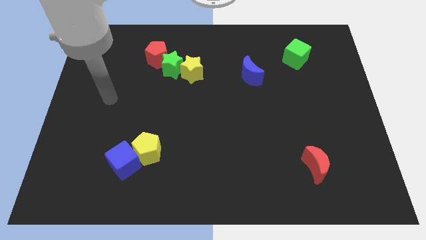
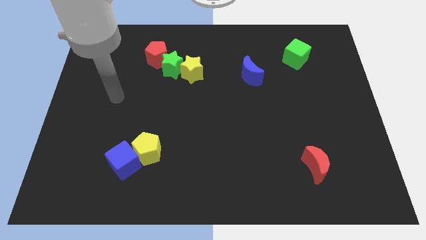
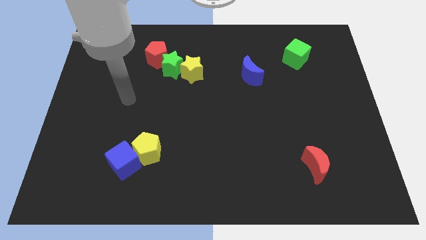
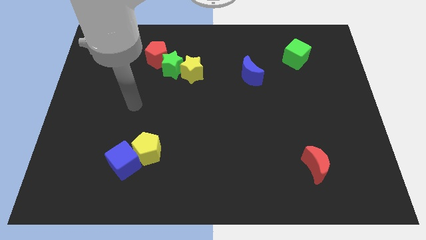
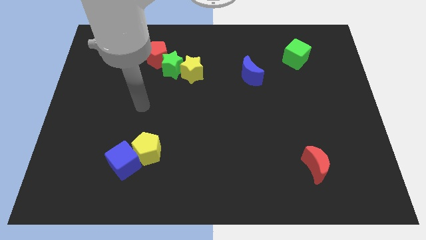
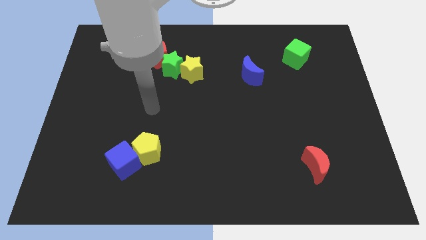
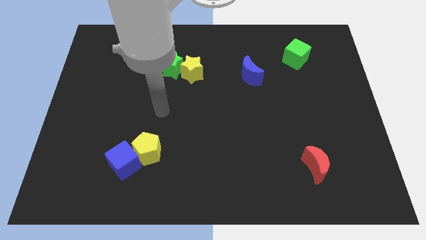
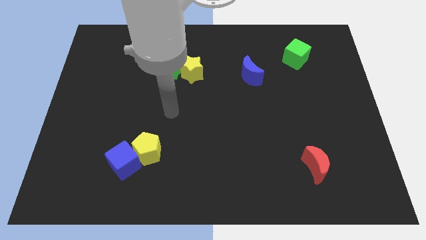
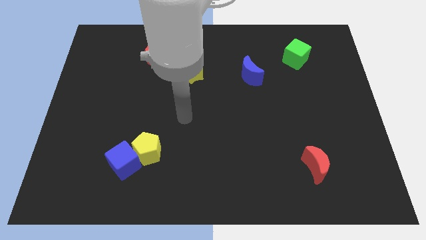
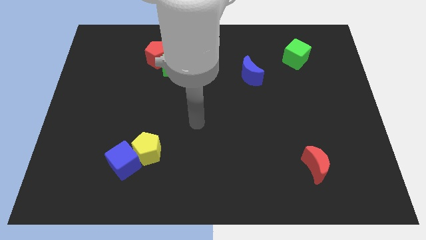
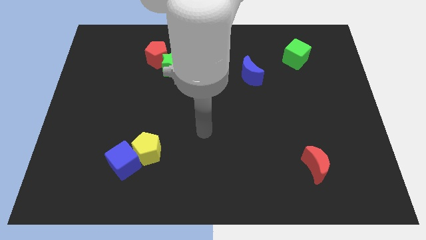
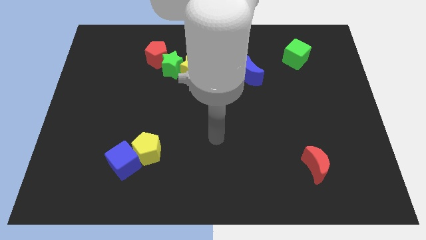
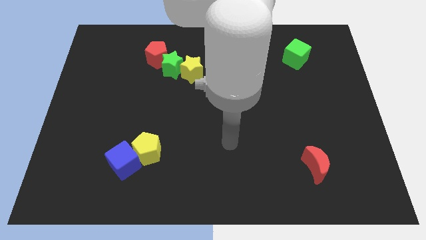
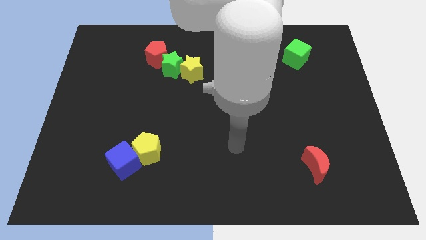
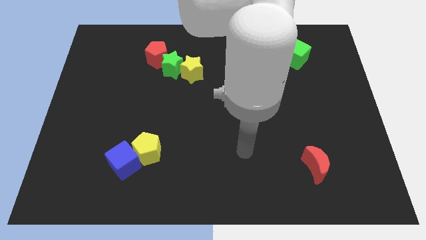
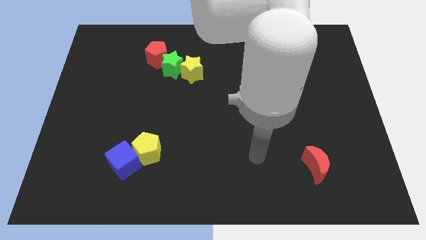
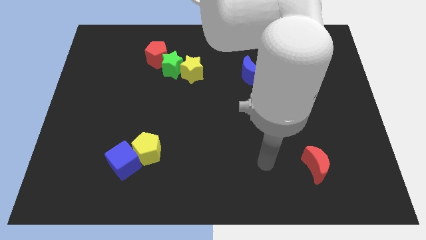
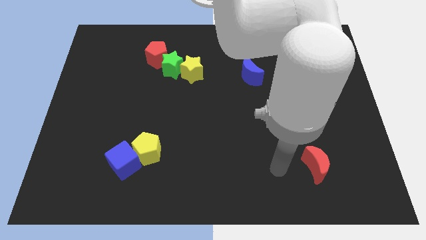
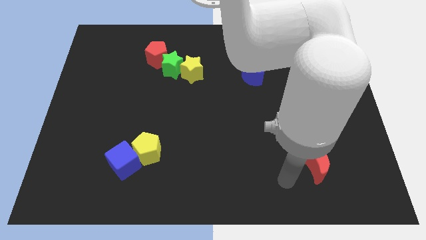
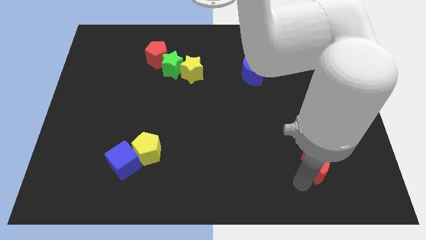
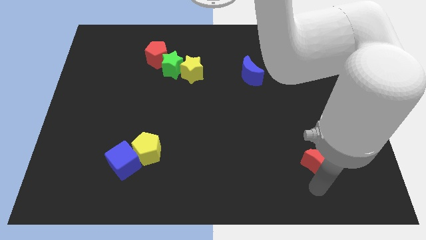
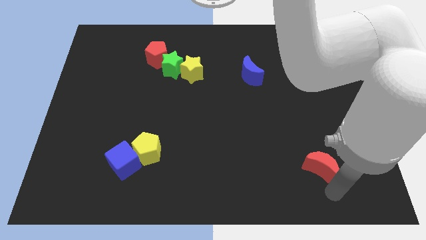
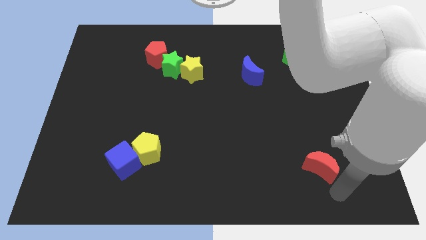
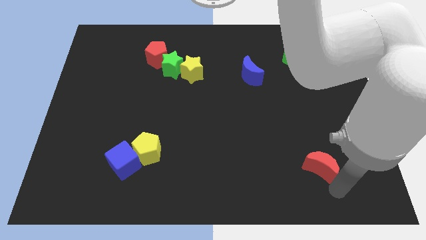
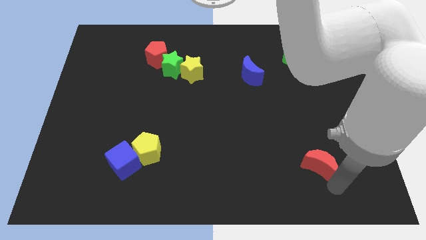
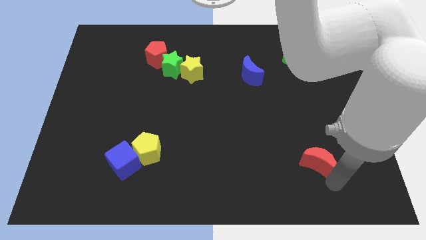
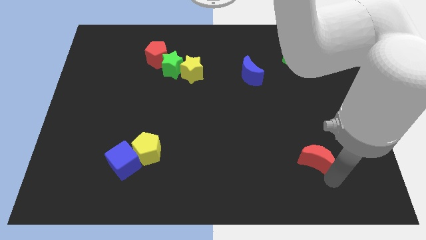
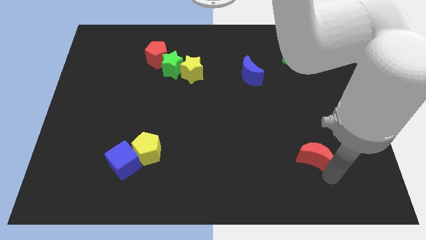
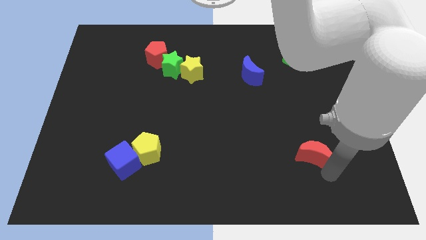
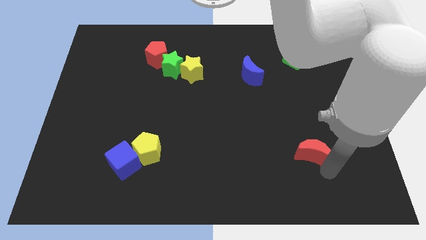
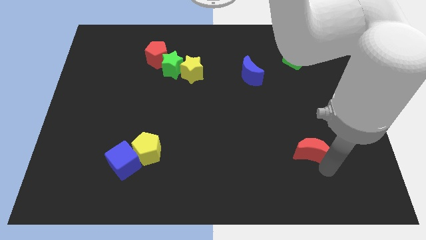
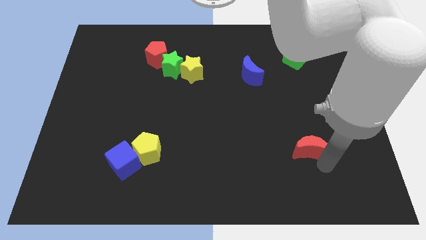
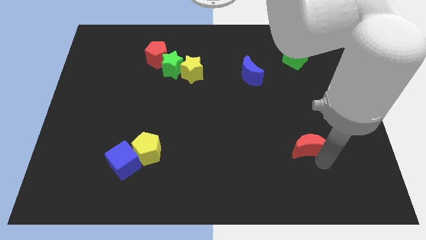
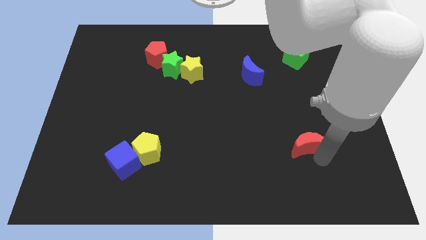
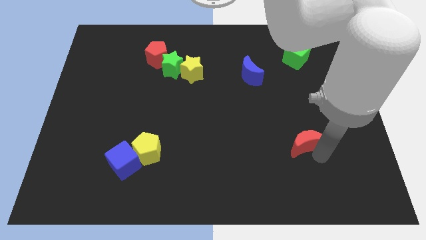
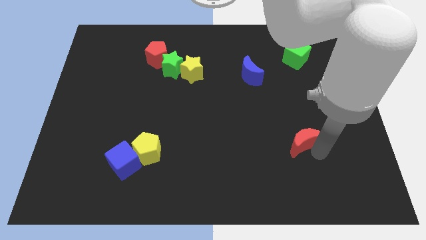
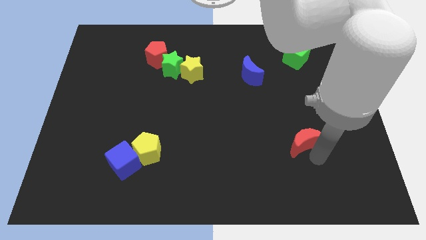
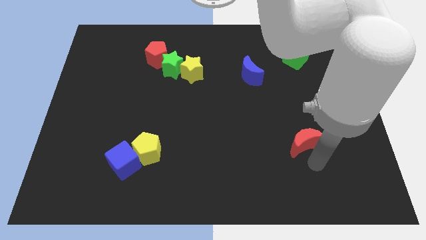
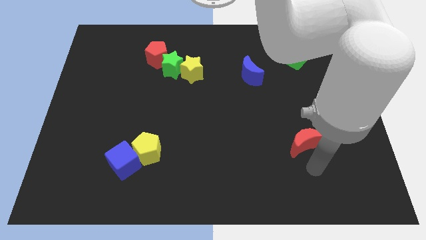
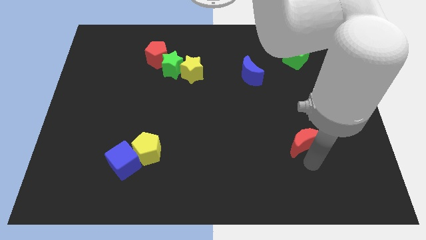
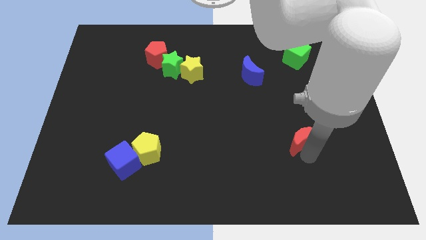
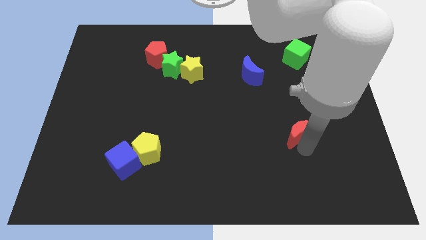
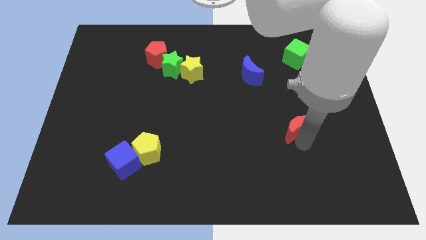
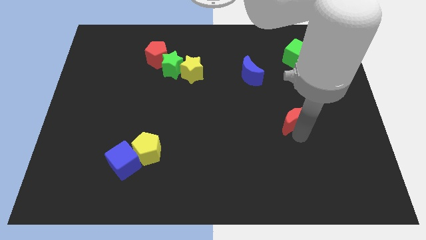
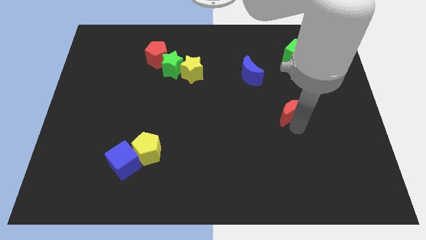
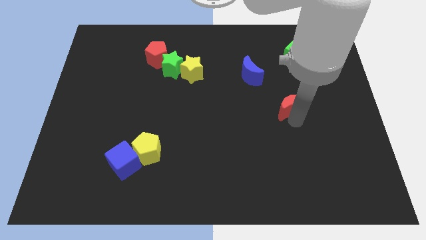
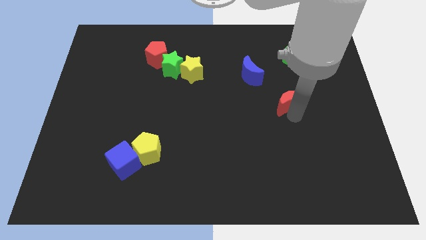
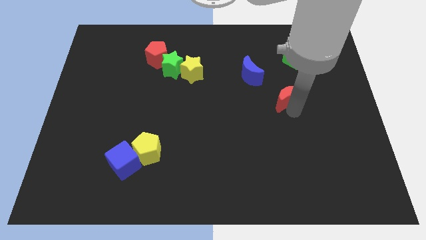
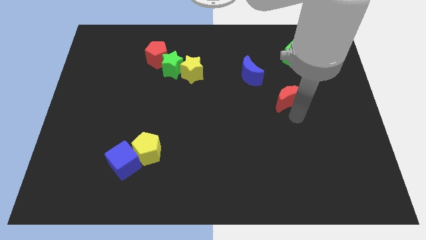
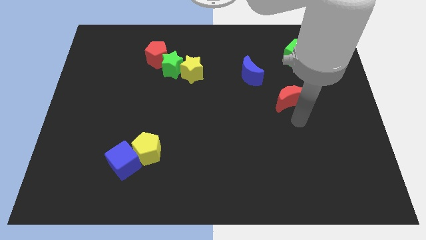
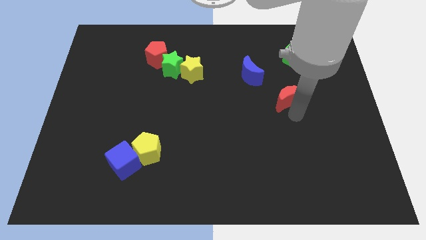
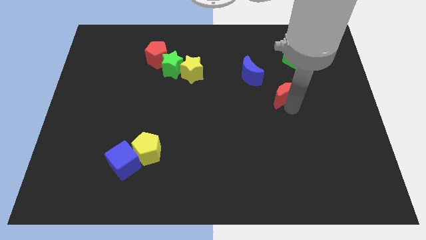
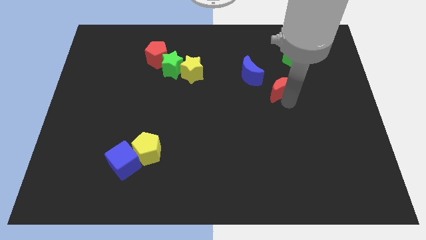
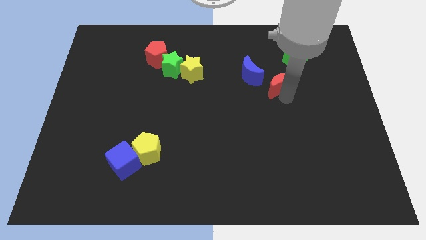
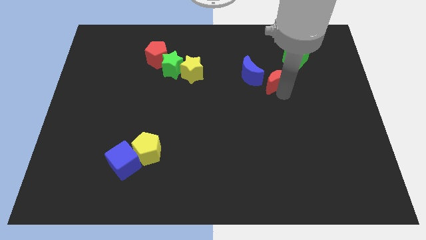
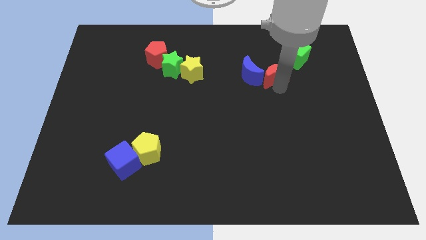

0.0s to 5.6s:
slide the red moon diagonally up and to the right of the blue moon

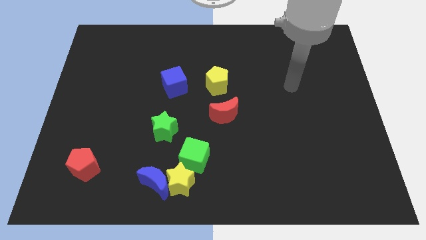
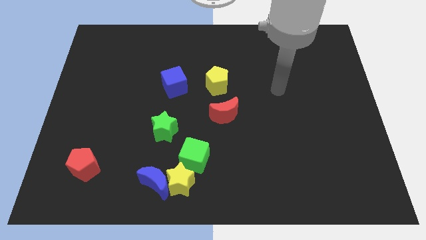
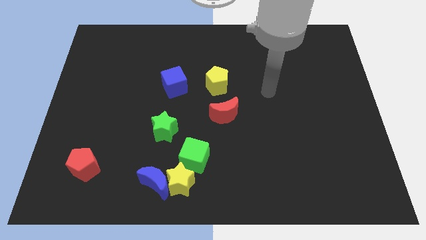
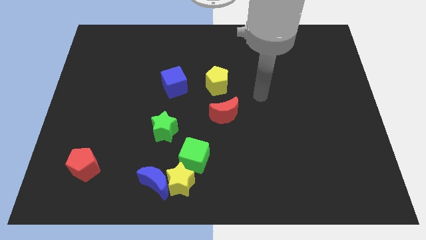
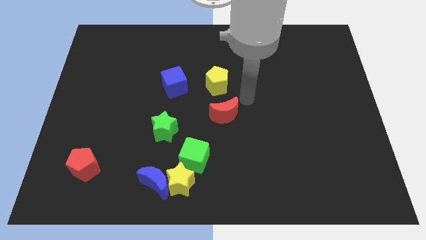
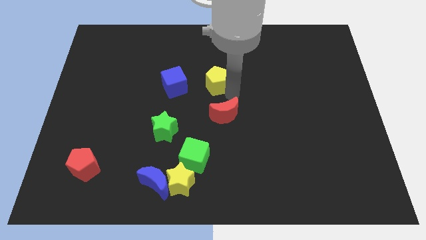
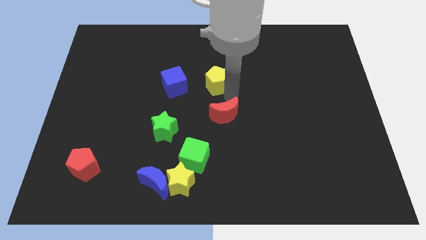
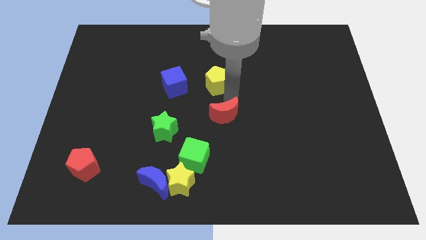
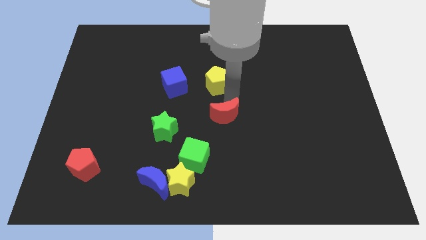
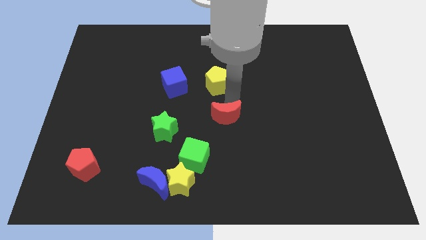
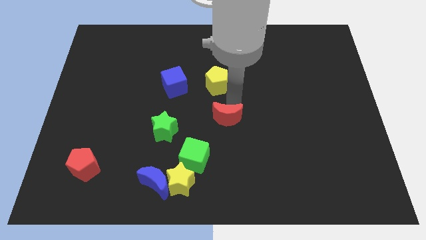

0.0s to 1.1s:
move the red moon diagonally up and to the right of the green cube
